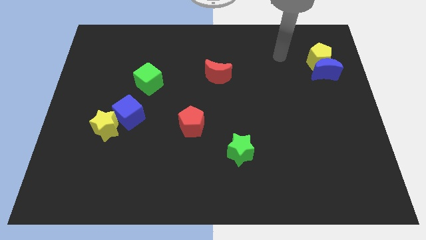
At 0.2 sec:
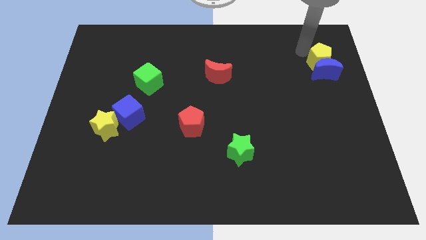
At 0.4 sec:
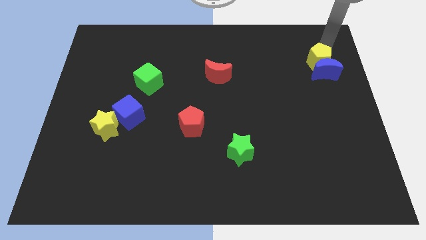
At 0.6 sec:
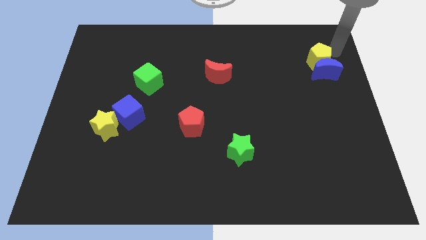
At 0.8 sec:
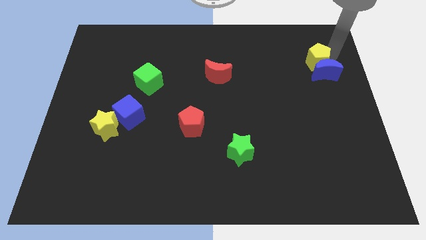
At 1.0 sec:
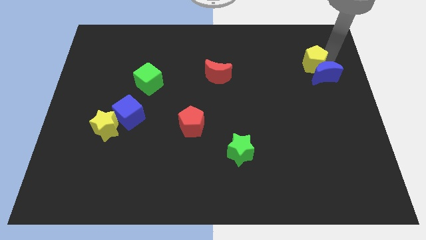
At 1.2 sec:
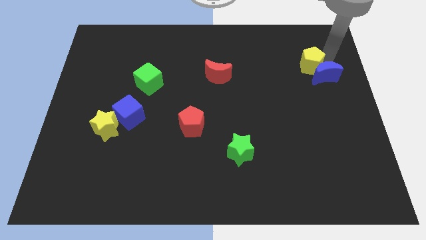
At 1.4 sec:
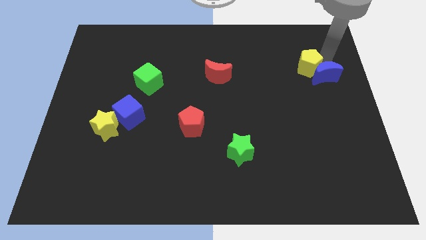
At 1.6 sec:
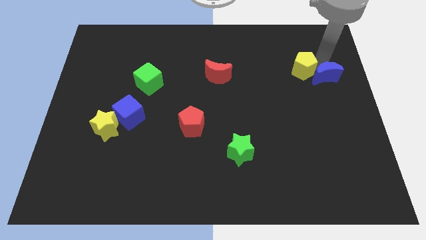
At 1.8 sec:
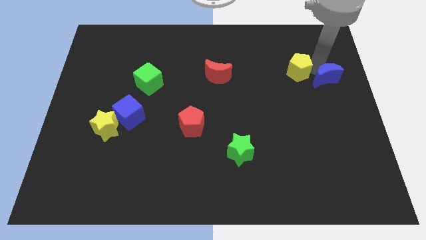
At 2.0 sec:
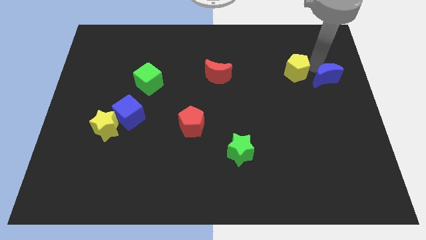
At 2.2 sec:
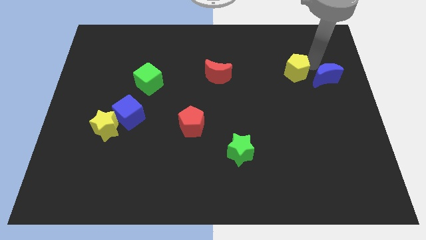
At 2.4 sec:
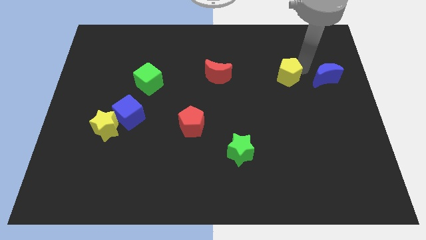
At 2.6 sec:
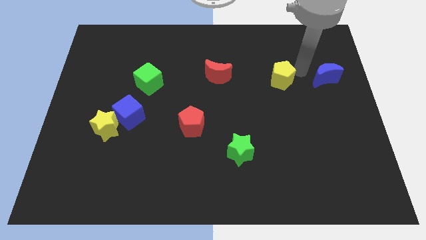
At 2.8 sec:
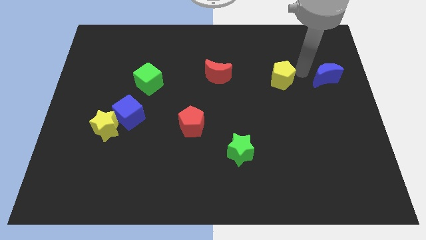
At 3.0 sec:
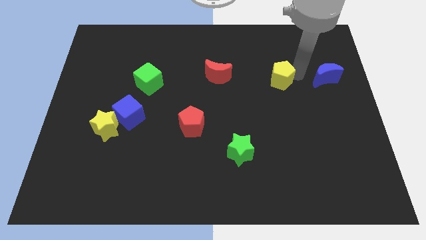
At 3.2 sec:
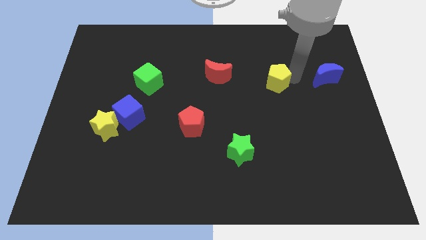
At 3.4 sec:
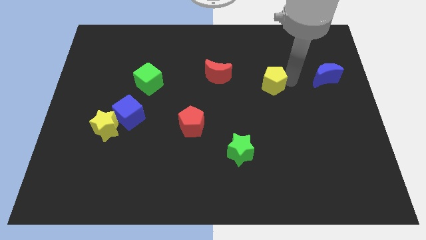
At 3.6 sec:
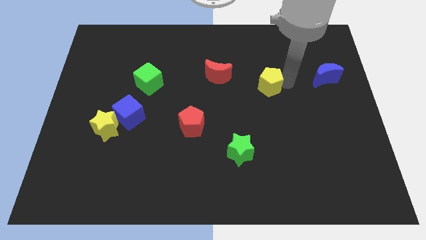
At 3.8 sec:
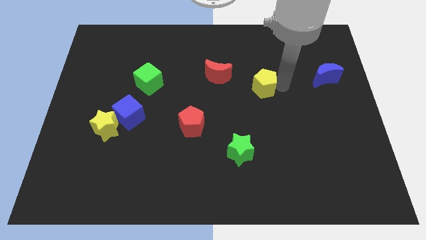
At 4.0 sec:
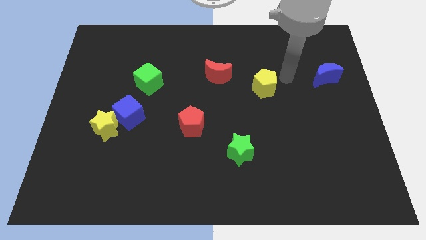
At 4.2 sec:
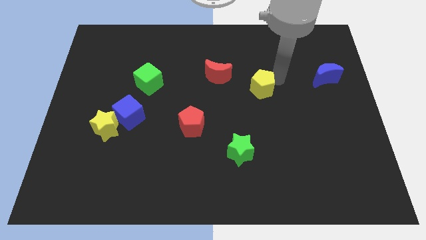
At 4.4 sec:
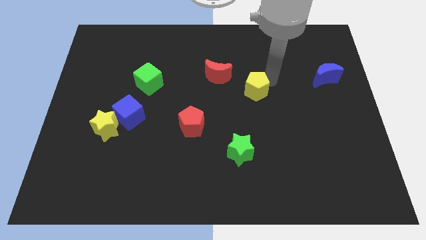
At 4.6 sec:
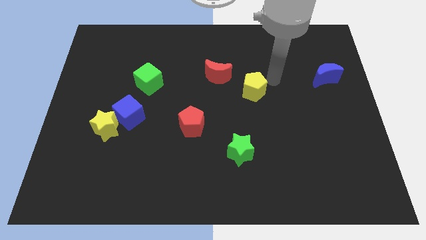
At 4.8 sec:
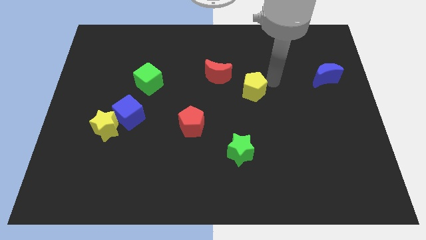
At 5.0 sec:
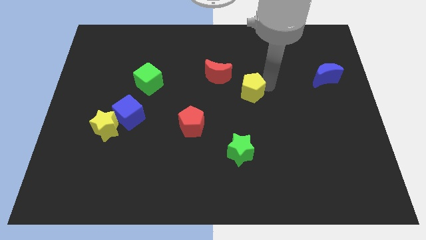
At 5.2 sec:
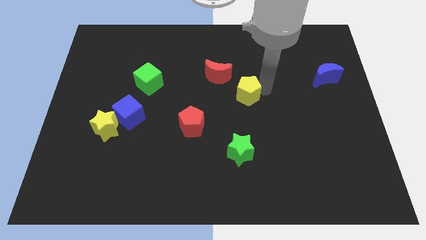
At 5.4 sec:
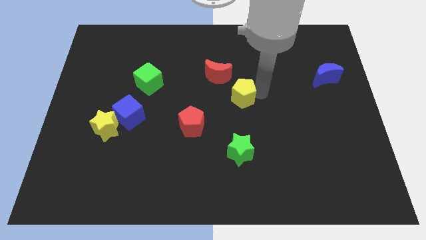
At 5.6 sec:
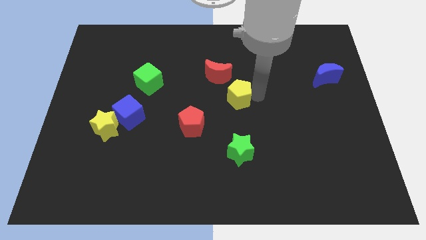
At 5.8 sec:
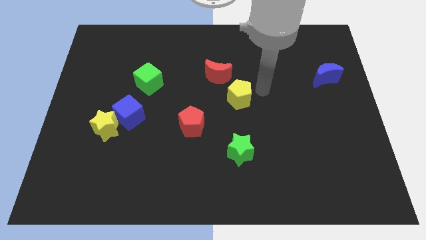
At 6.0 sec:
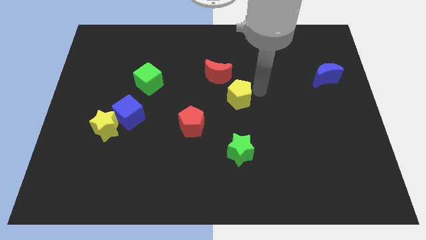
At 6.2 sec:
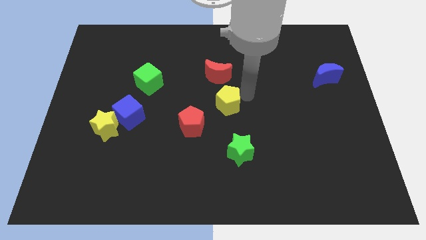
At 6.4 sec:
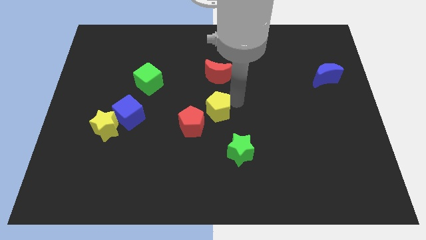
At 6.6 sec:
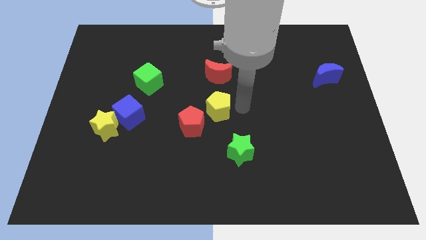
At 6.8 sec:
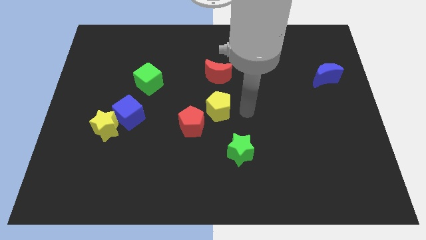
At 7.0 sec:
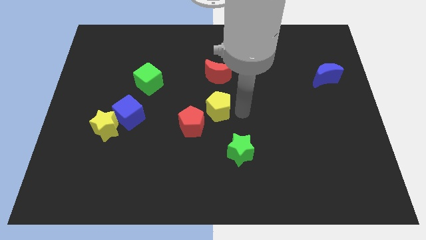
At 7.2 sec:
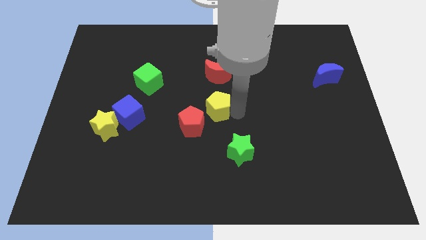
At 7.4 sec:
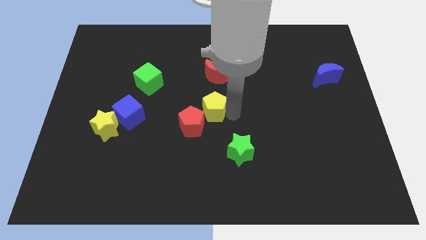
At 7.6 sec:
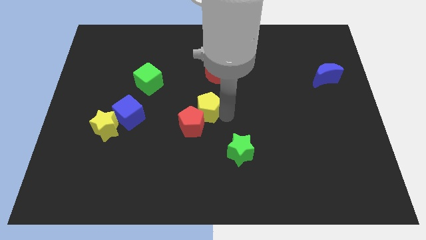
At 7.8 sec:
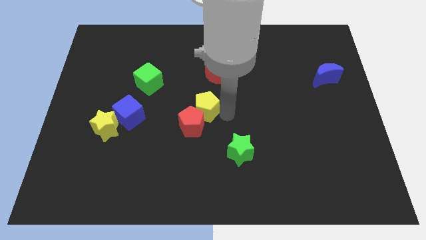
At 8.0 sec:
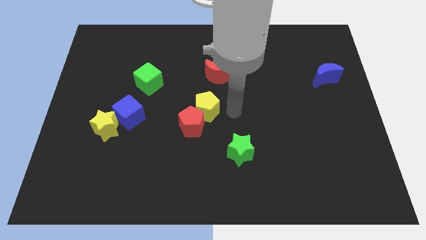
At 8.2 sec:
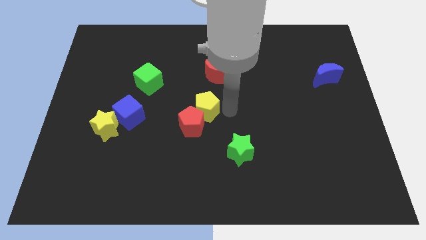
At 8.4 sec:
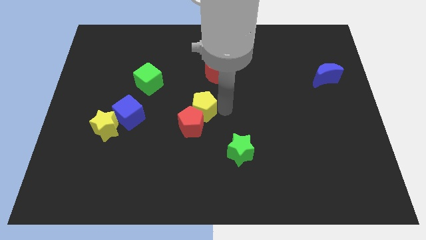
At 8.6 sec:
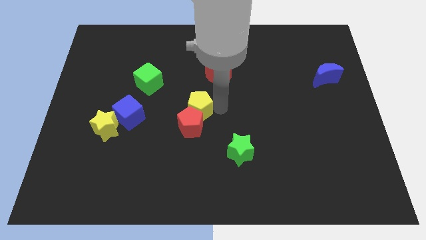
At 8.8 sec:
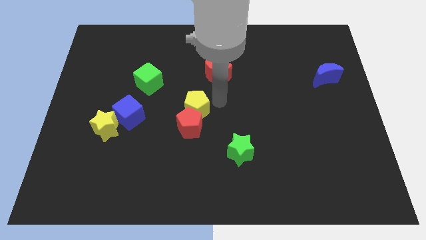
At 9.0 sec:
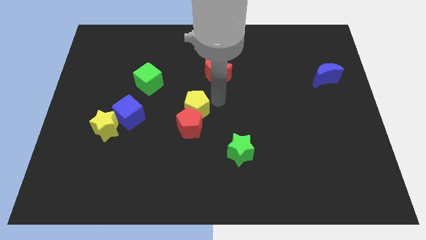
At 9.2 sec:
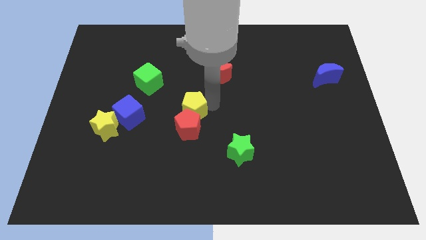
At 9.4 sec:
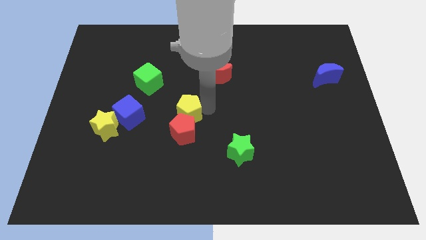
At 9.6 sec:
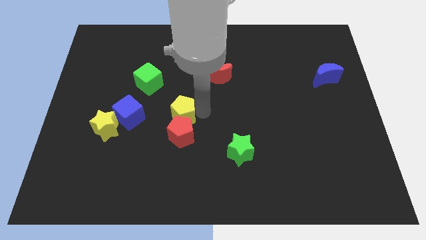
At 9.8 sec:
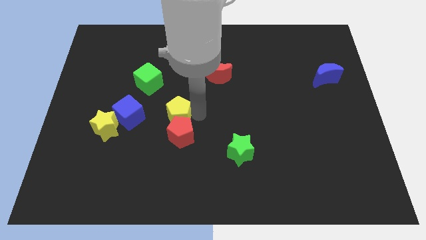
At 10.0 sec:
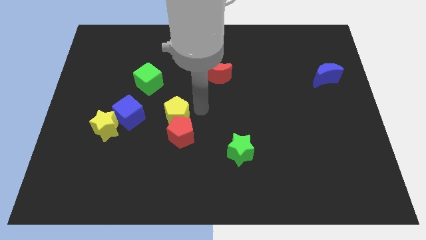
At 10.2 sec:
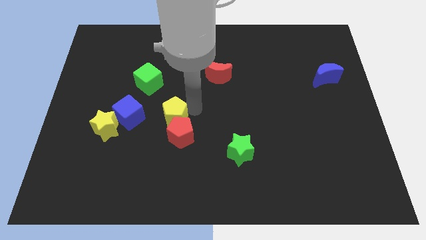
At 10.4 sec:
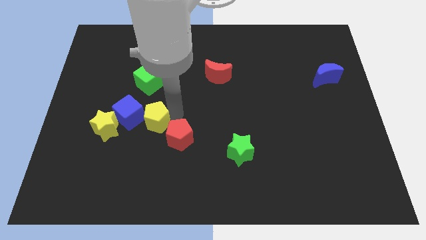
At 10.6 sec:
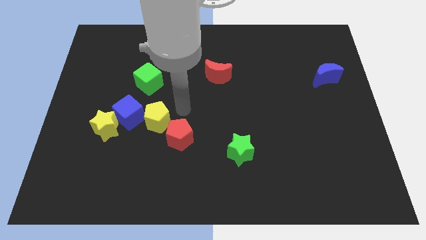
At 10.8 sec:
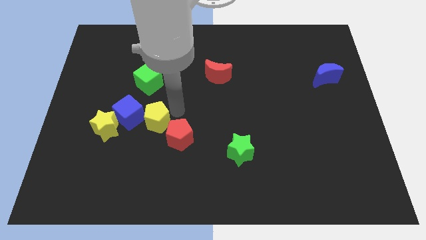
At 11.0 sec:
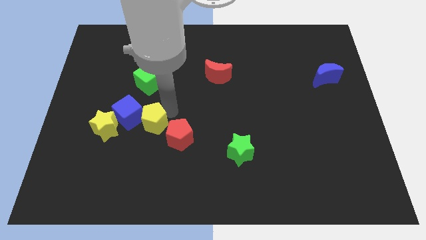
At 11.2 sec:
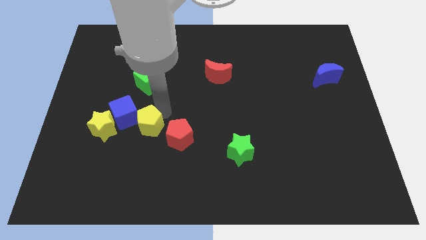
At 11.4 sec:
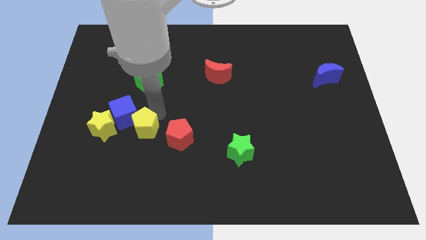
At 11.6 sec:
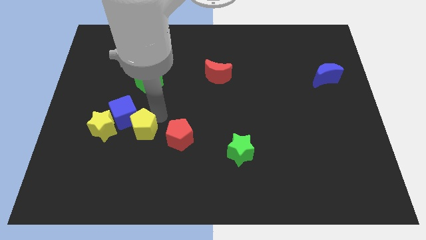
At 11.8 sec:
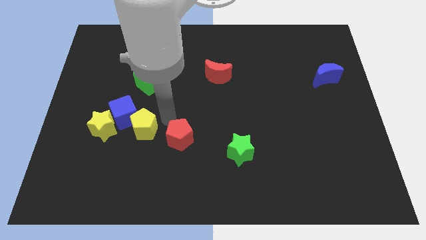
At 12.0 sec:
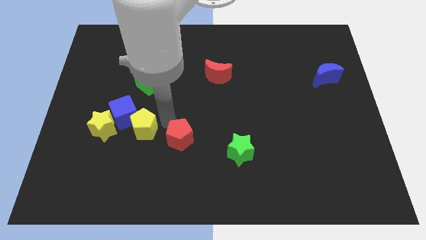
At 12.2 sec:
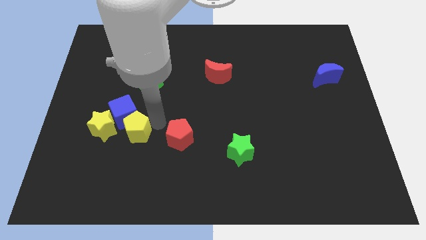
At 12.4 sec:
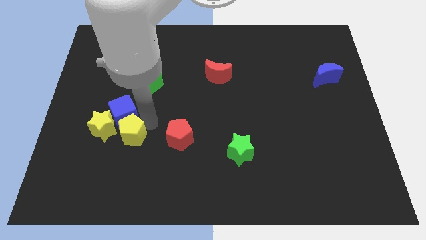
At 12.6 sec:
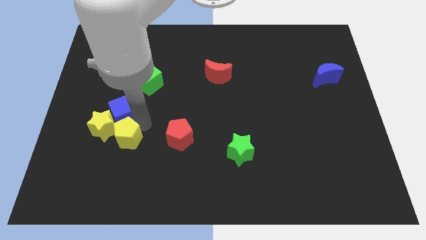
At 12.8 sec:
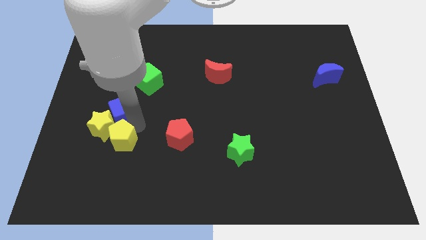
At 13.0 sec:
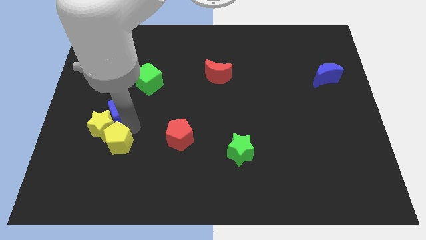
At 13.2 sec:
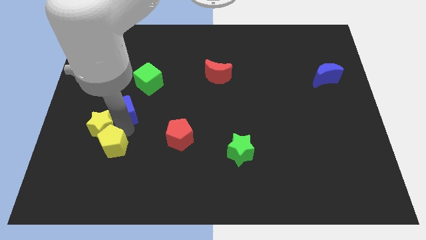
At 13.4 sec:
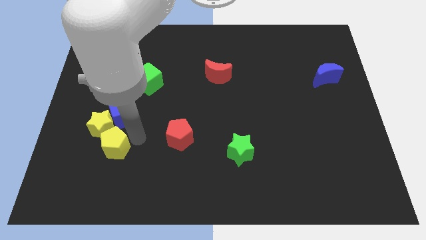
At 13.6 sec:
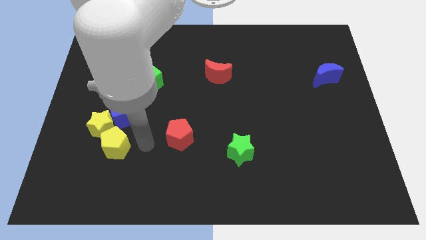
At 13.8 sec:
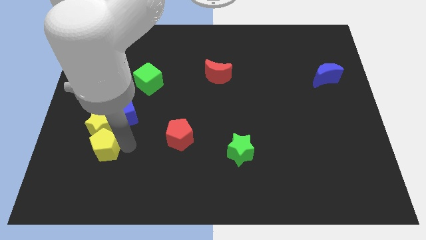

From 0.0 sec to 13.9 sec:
push the yellow pentagon to the bottom left of the yellow star

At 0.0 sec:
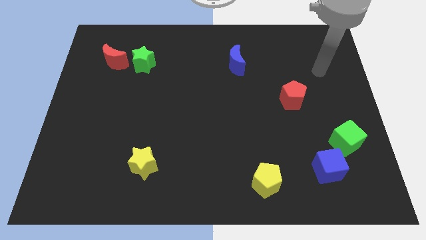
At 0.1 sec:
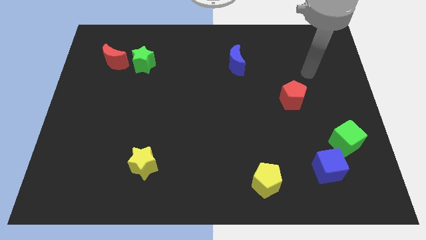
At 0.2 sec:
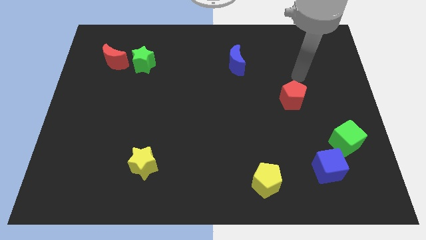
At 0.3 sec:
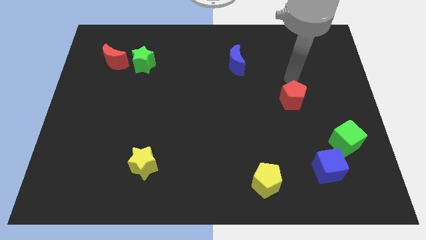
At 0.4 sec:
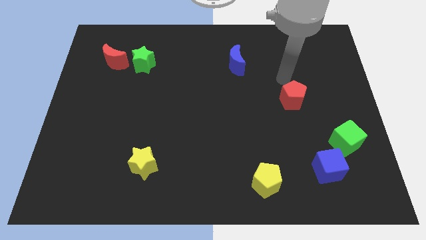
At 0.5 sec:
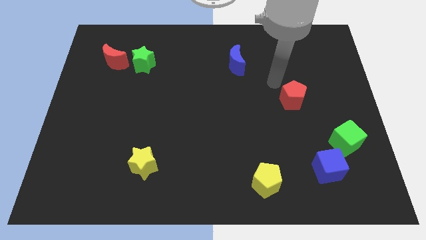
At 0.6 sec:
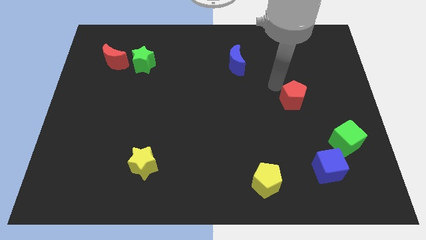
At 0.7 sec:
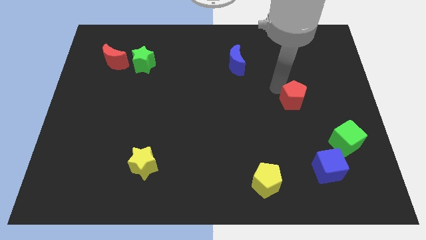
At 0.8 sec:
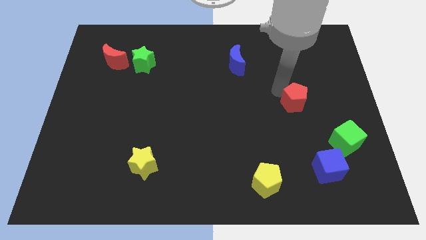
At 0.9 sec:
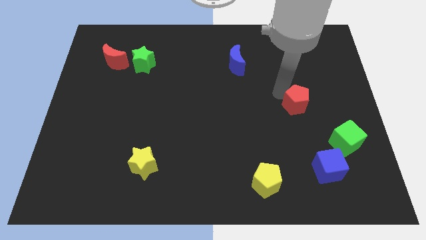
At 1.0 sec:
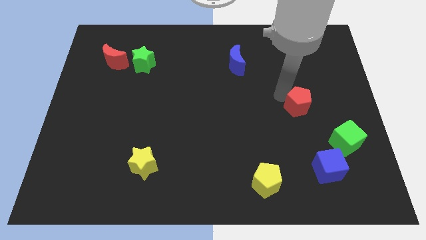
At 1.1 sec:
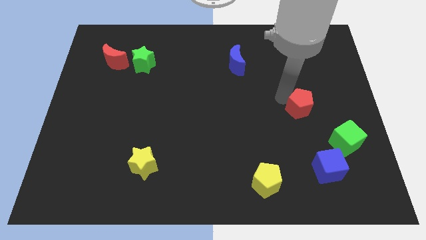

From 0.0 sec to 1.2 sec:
move the red pentagon diagonally up and to the left of the green cube
